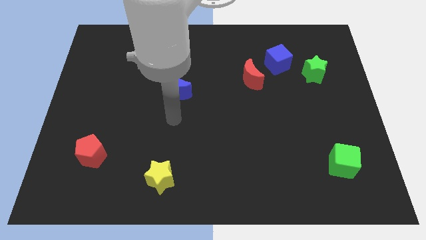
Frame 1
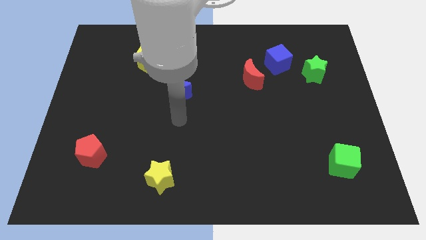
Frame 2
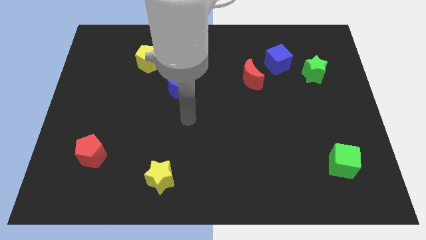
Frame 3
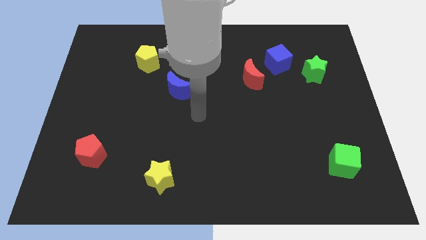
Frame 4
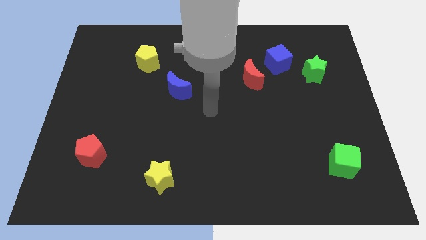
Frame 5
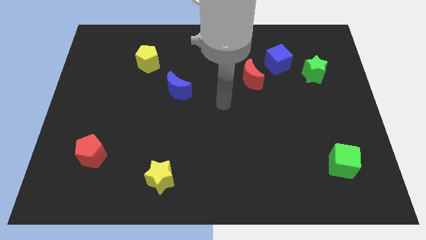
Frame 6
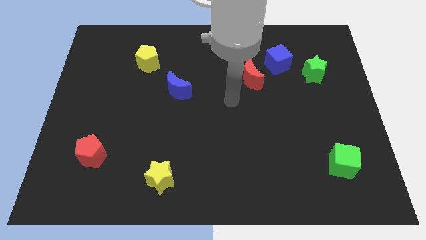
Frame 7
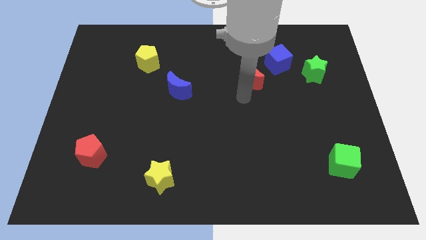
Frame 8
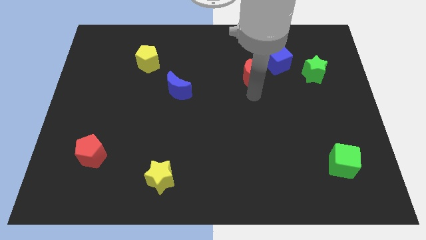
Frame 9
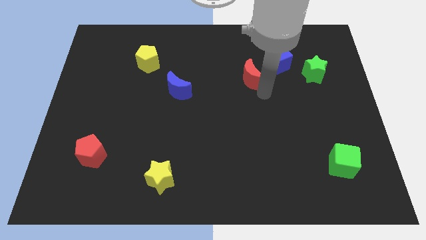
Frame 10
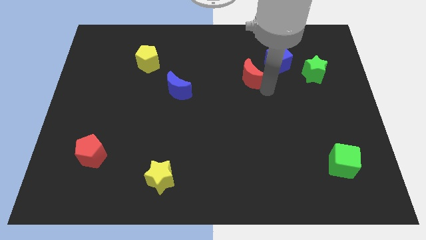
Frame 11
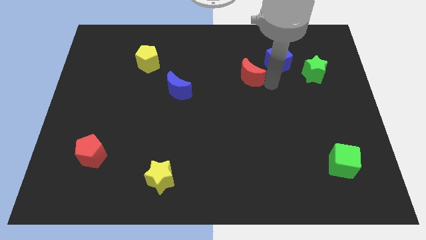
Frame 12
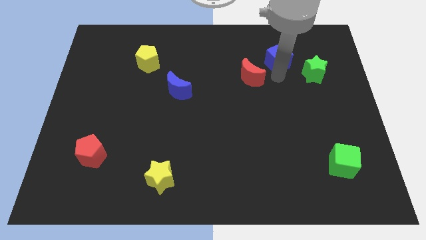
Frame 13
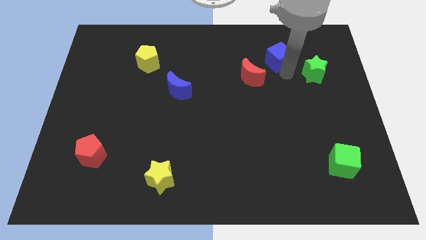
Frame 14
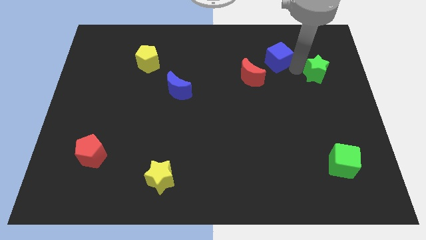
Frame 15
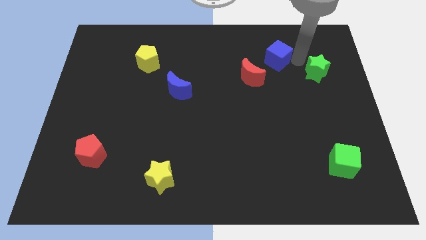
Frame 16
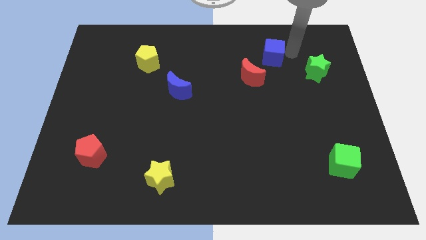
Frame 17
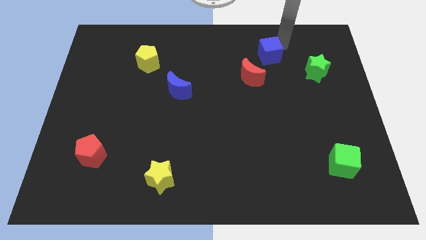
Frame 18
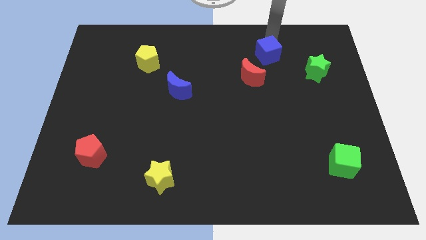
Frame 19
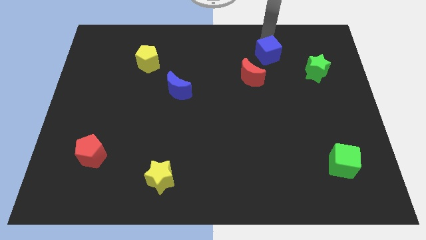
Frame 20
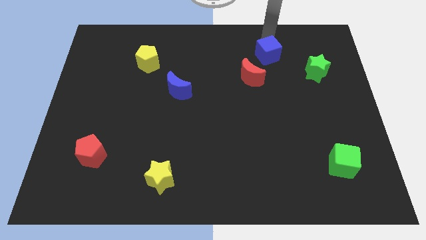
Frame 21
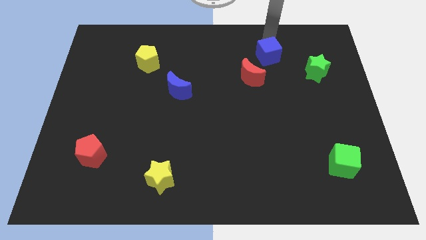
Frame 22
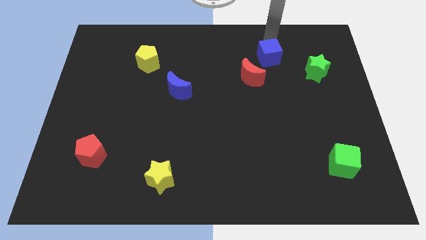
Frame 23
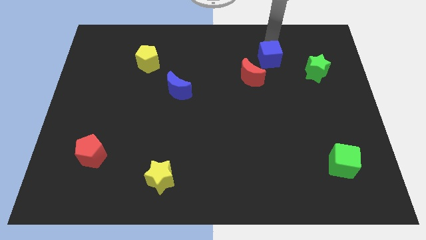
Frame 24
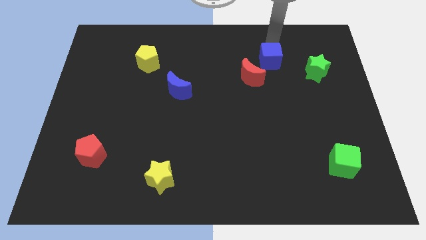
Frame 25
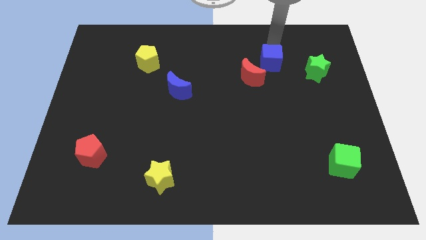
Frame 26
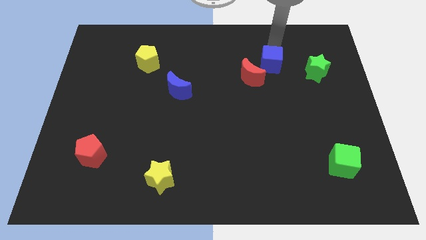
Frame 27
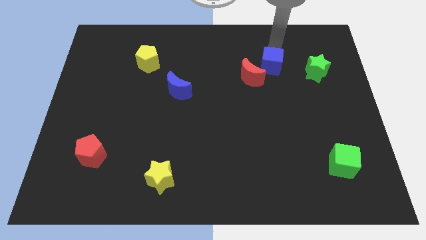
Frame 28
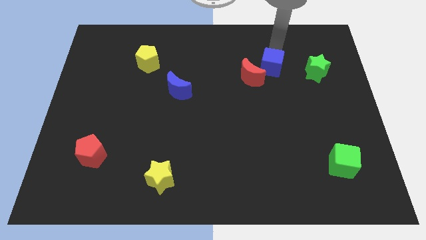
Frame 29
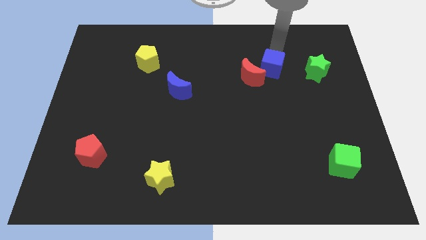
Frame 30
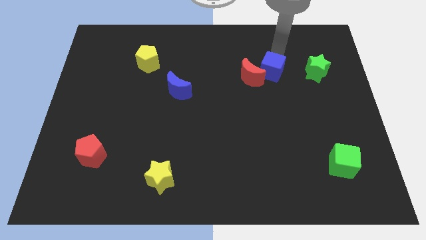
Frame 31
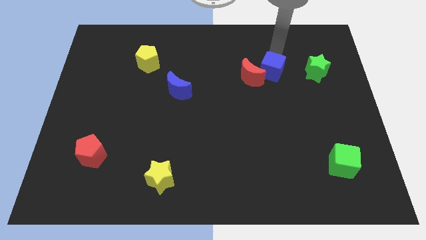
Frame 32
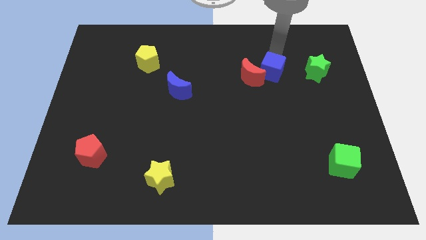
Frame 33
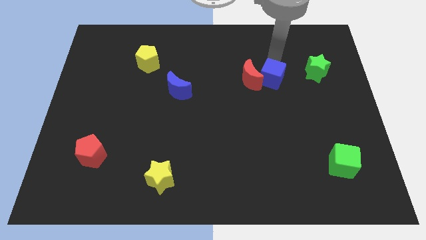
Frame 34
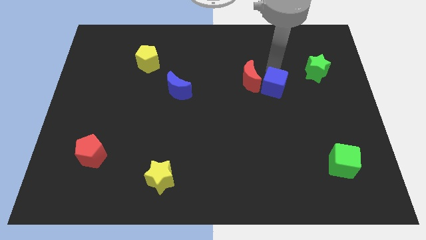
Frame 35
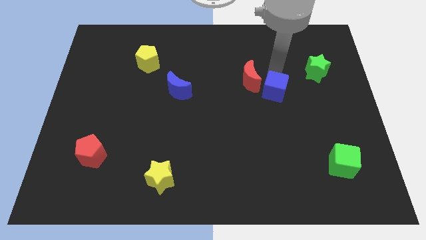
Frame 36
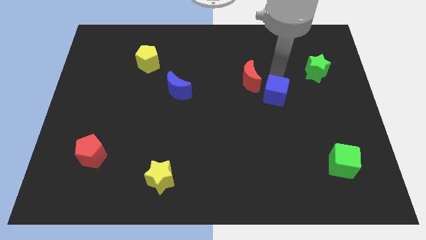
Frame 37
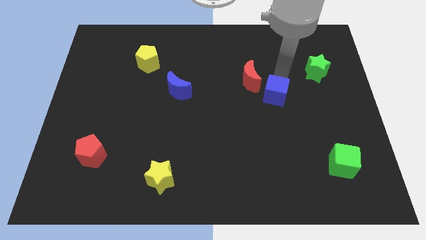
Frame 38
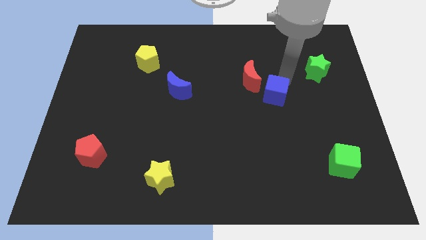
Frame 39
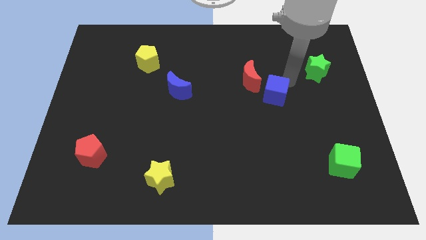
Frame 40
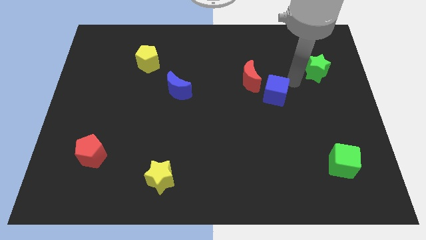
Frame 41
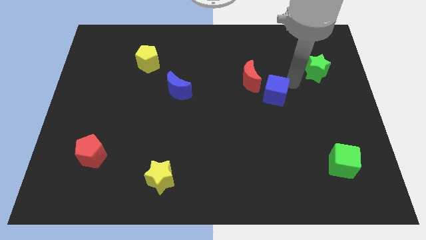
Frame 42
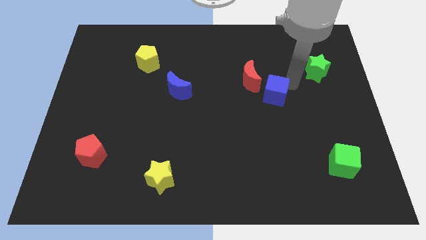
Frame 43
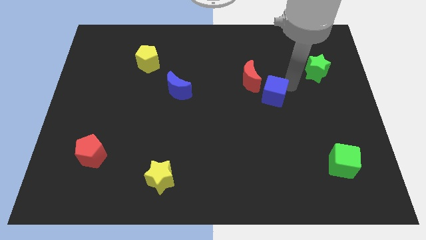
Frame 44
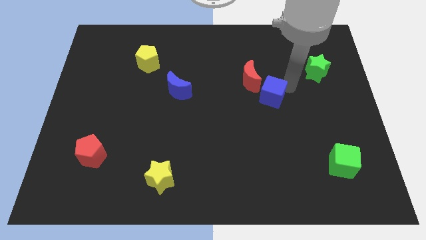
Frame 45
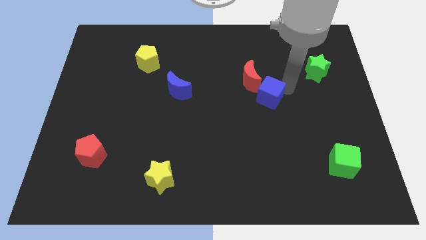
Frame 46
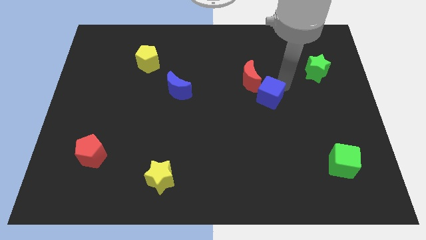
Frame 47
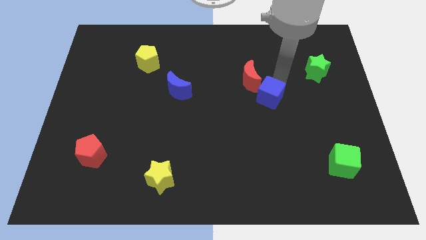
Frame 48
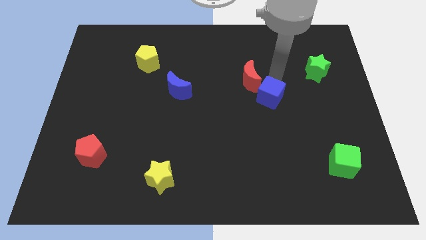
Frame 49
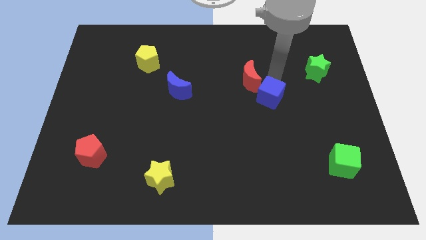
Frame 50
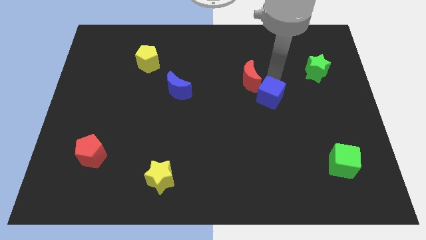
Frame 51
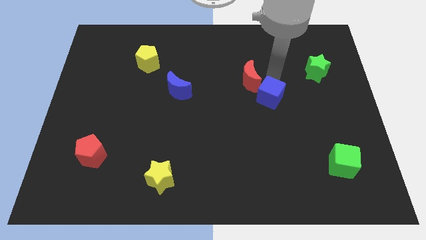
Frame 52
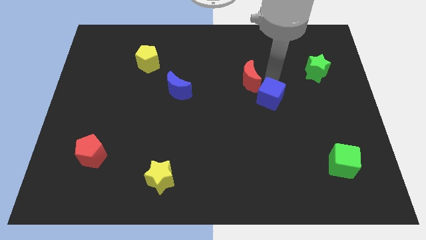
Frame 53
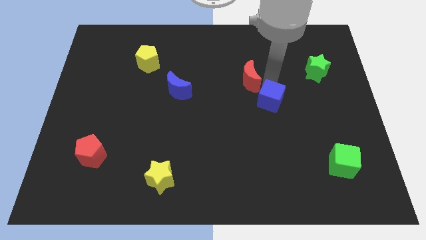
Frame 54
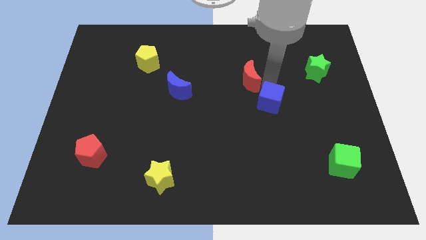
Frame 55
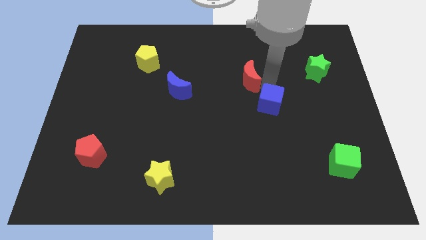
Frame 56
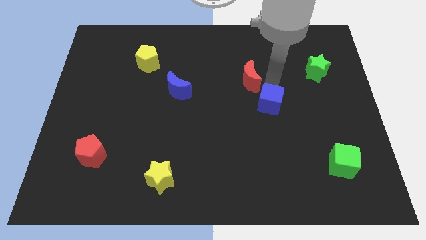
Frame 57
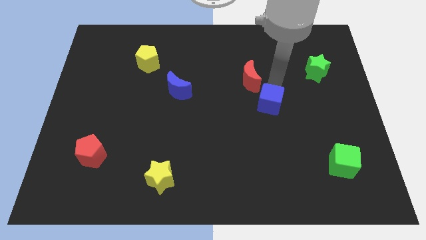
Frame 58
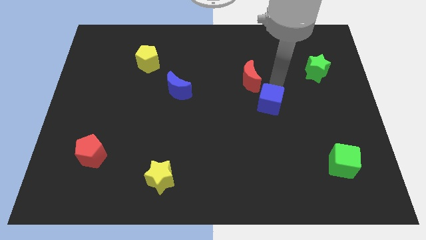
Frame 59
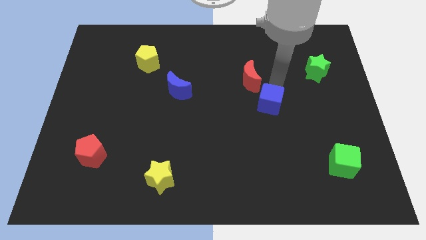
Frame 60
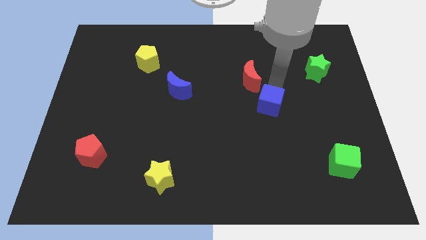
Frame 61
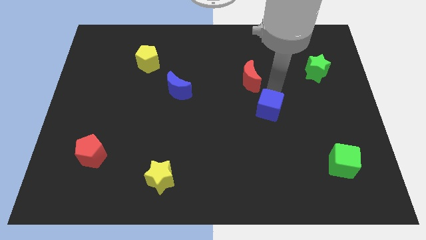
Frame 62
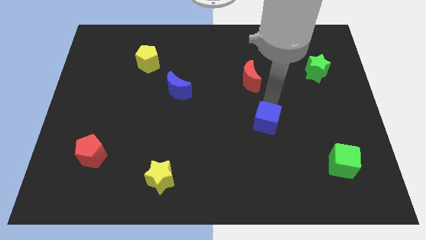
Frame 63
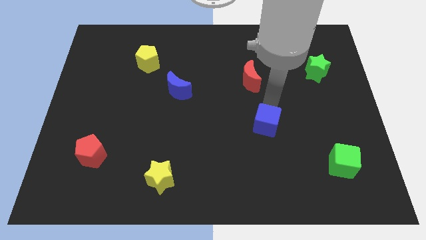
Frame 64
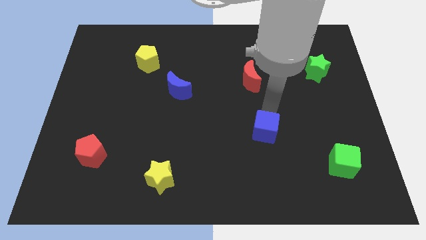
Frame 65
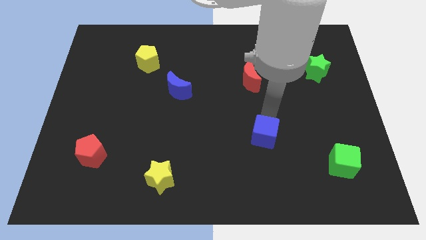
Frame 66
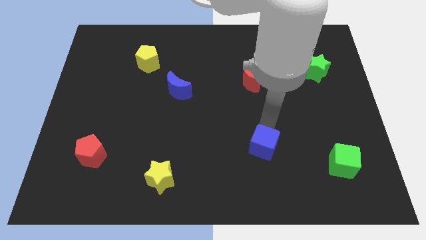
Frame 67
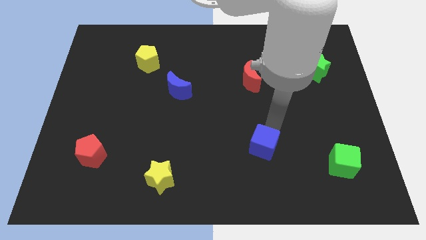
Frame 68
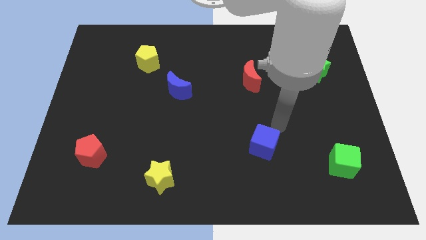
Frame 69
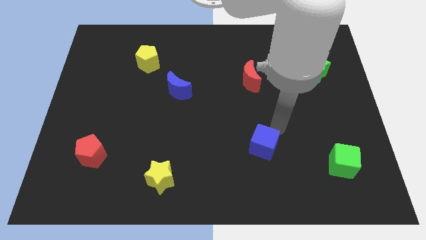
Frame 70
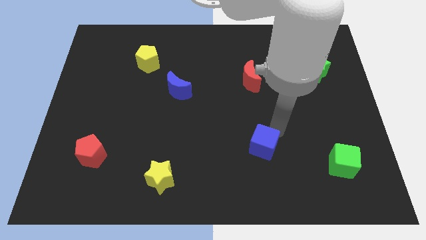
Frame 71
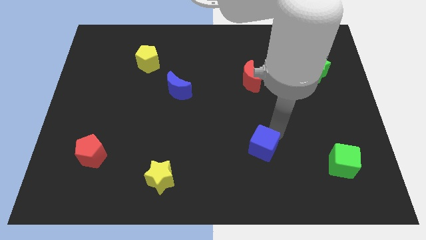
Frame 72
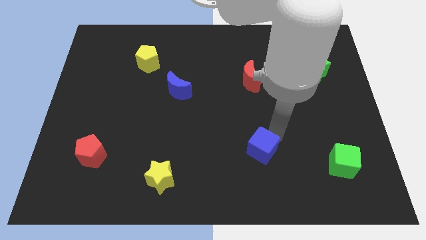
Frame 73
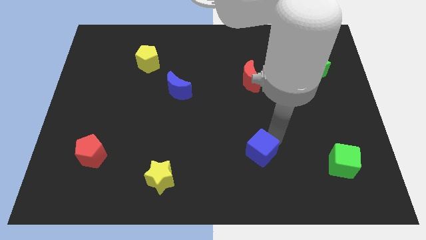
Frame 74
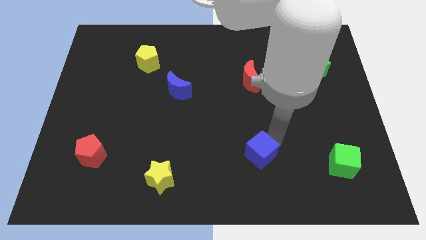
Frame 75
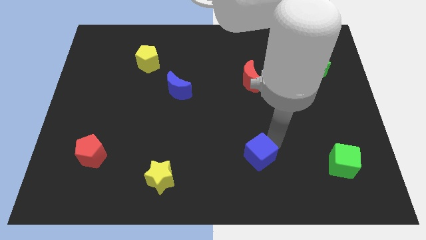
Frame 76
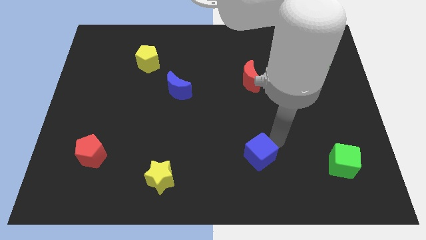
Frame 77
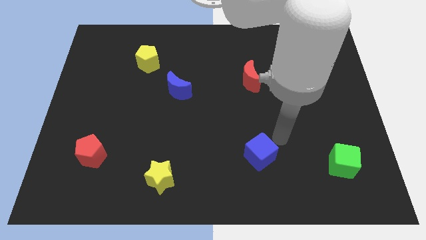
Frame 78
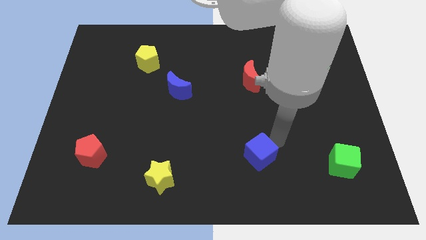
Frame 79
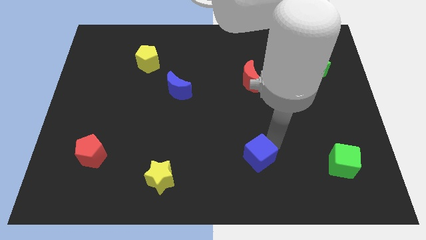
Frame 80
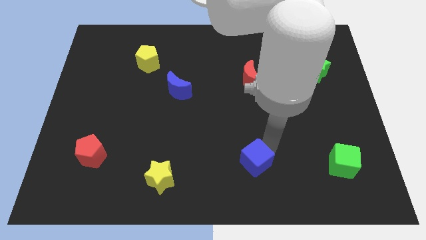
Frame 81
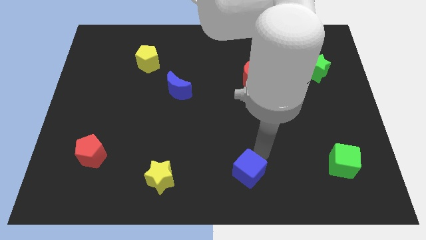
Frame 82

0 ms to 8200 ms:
put the blue cube to the bottom
